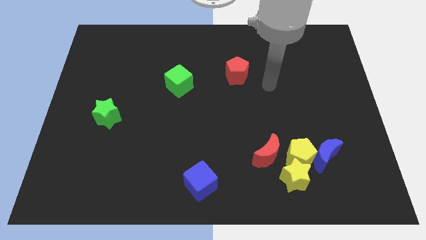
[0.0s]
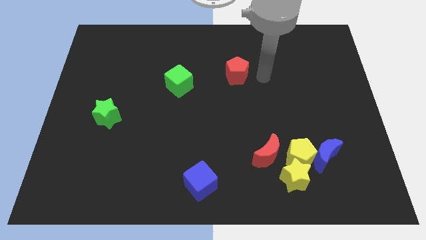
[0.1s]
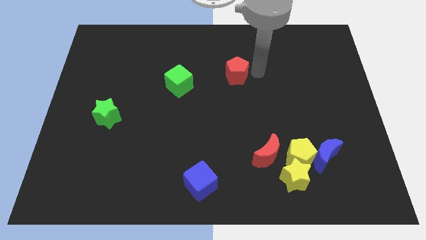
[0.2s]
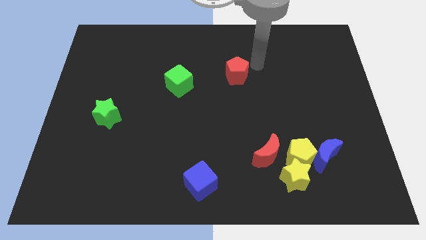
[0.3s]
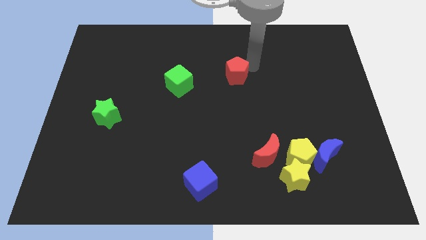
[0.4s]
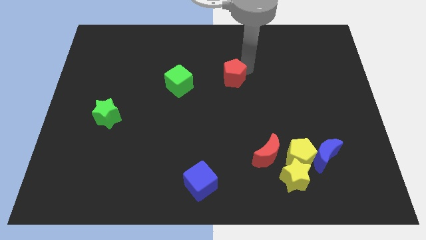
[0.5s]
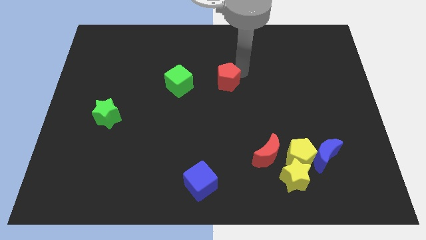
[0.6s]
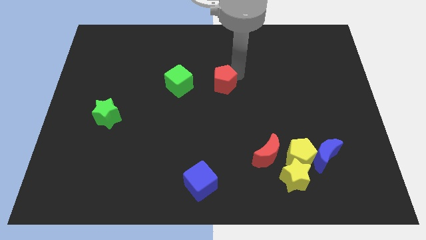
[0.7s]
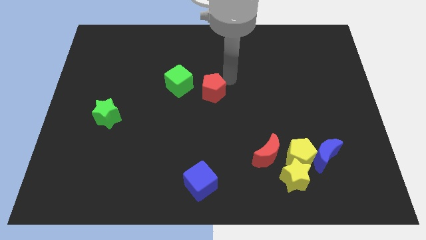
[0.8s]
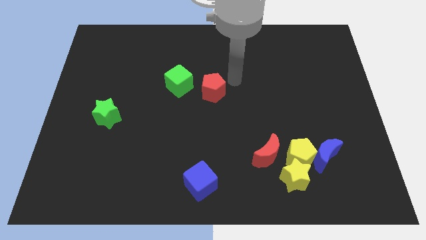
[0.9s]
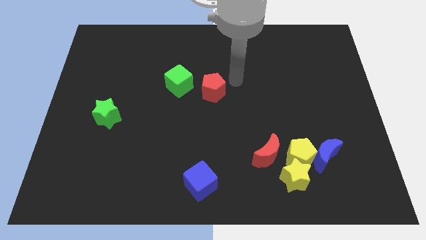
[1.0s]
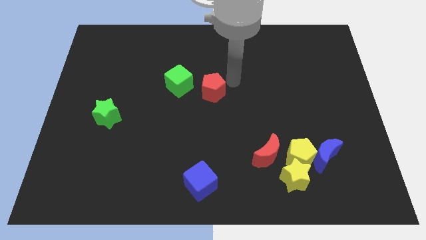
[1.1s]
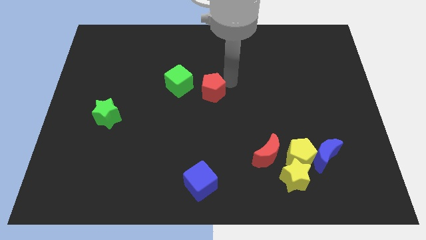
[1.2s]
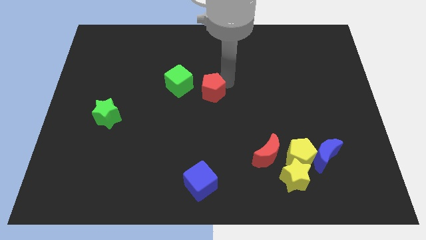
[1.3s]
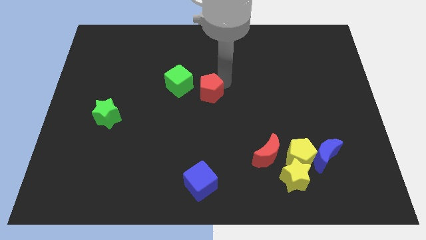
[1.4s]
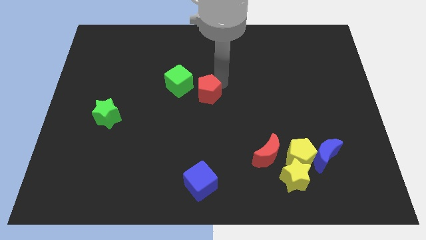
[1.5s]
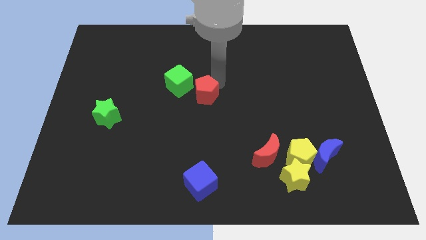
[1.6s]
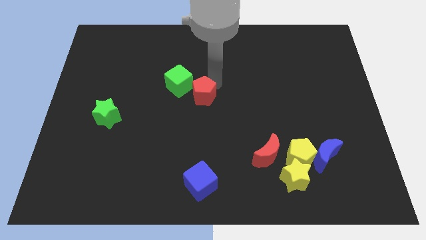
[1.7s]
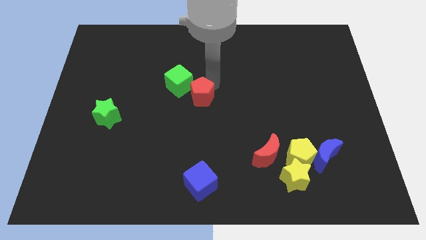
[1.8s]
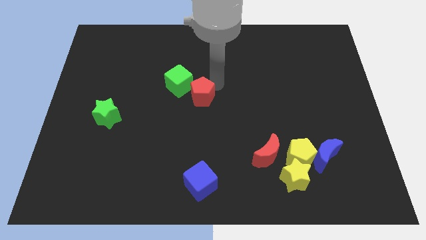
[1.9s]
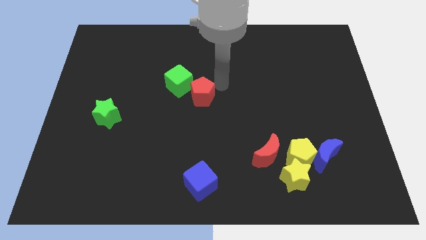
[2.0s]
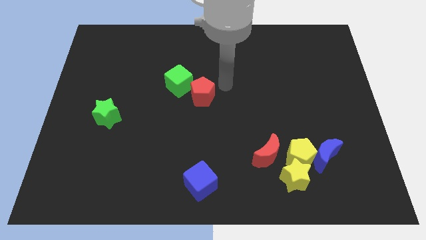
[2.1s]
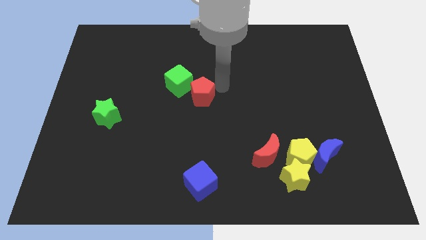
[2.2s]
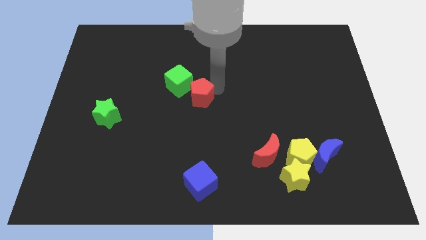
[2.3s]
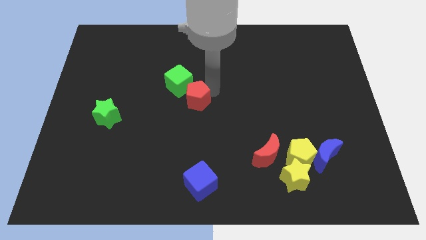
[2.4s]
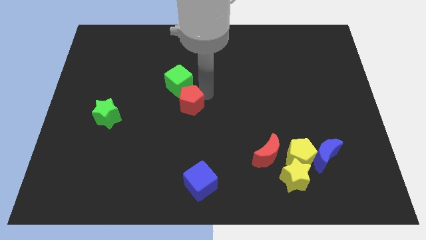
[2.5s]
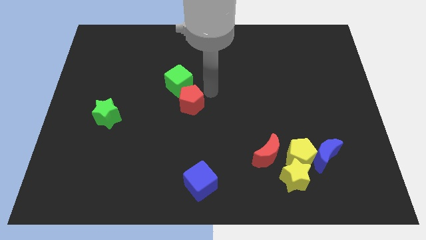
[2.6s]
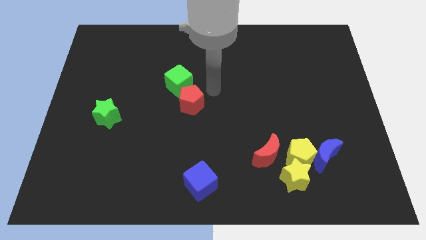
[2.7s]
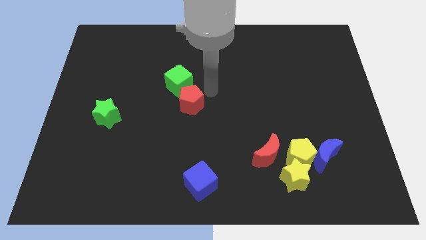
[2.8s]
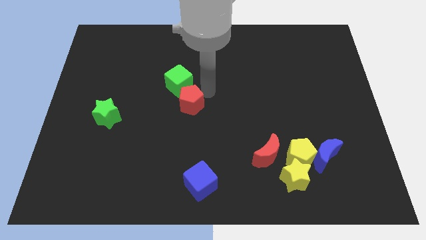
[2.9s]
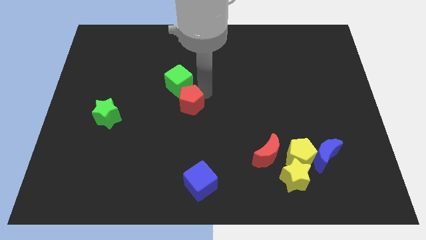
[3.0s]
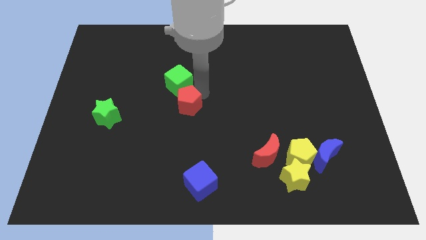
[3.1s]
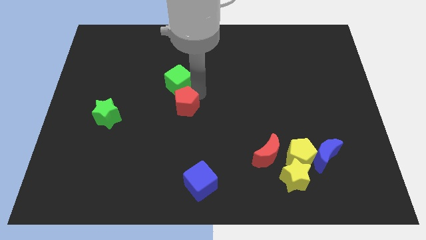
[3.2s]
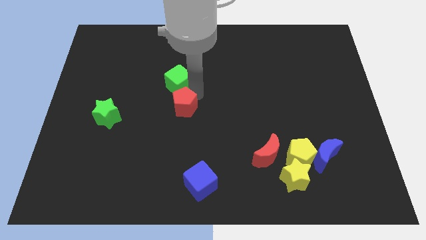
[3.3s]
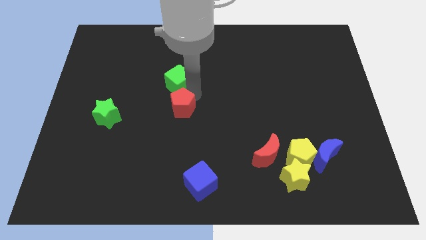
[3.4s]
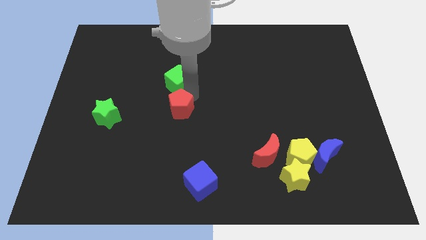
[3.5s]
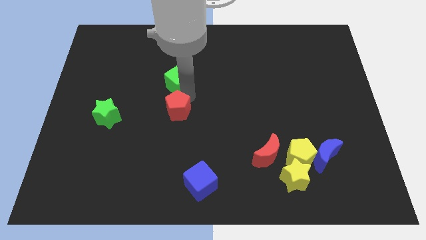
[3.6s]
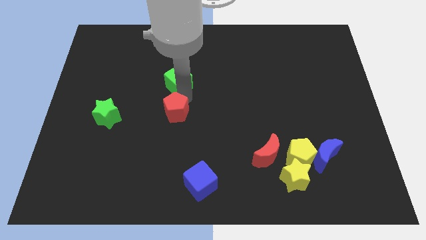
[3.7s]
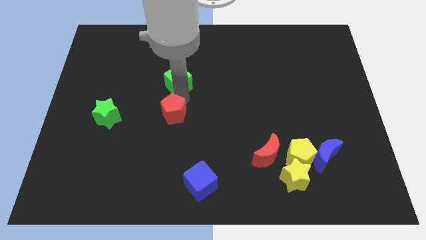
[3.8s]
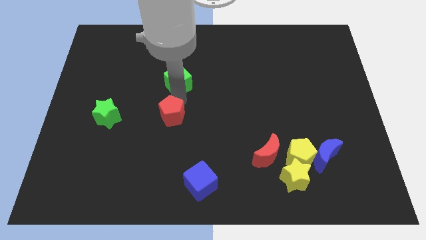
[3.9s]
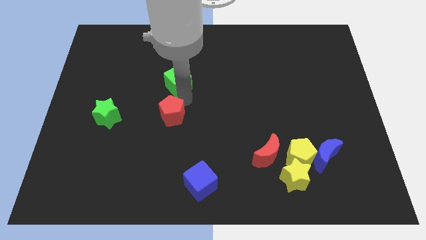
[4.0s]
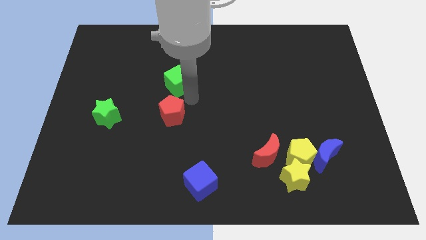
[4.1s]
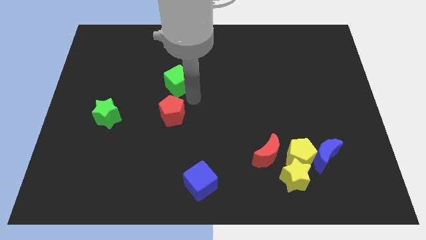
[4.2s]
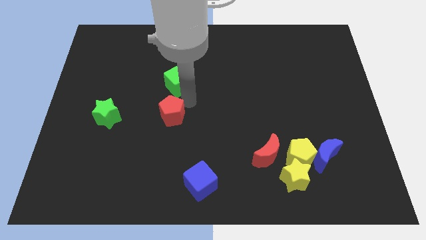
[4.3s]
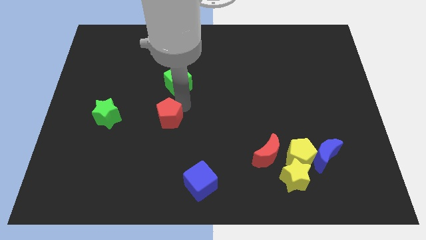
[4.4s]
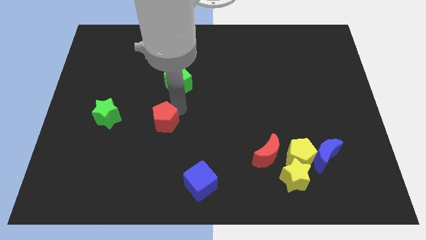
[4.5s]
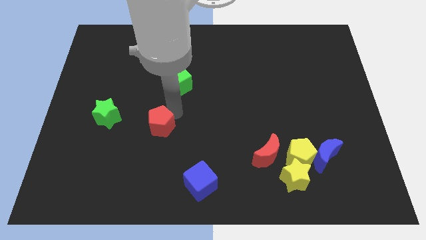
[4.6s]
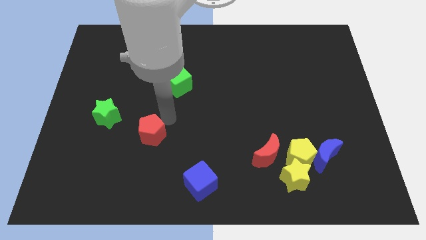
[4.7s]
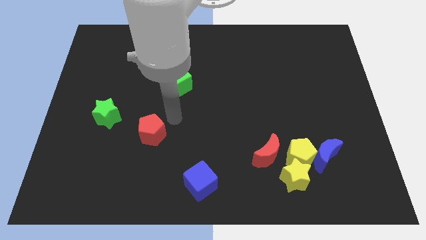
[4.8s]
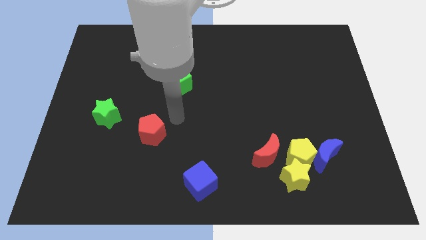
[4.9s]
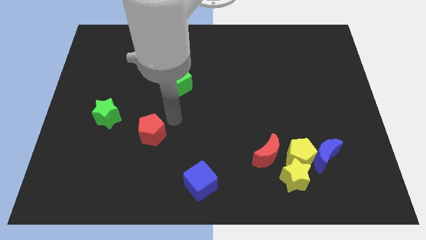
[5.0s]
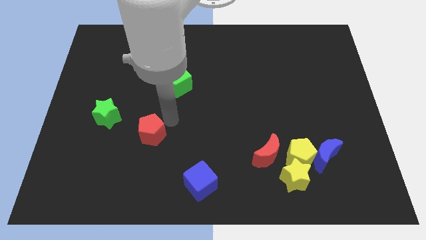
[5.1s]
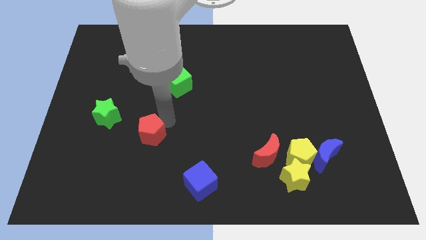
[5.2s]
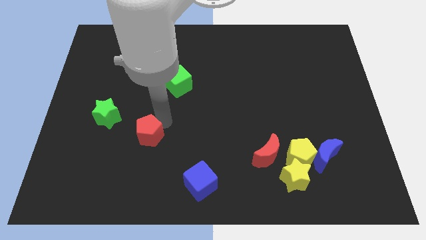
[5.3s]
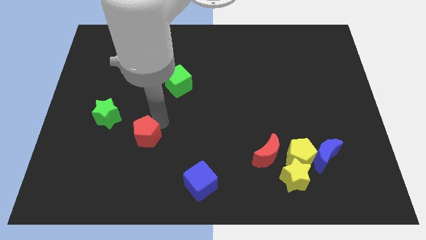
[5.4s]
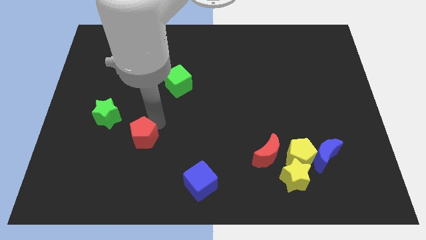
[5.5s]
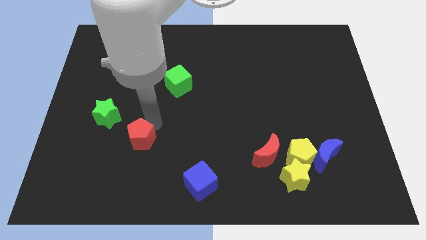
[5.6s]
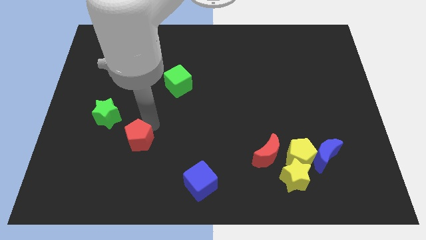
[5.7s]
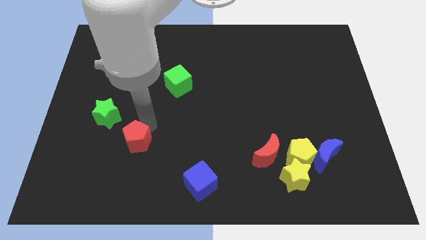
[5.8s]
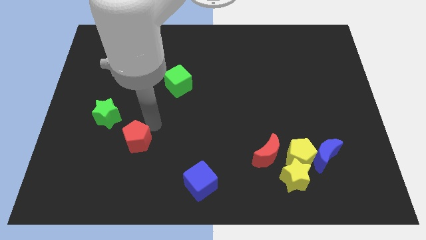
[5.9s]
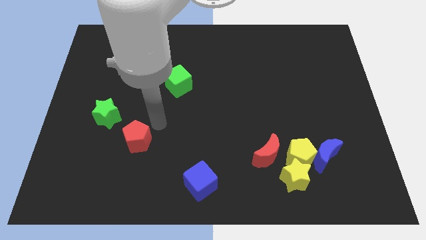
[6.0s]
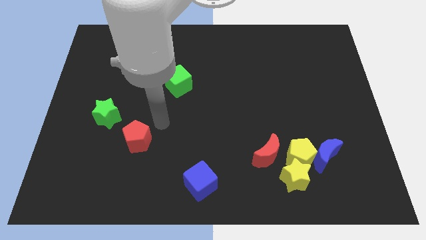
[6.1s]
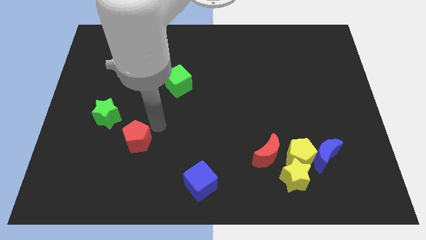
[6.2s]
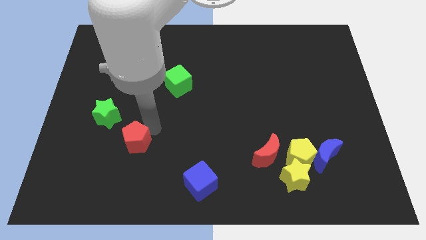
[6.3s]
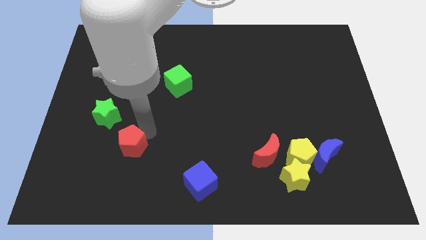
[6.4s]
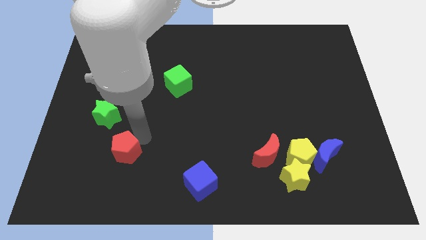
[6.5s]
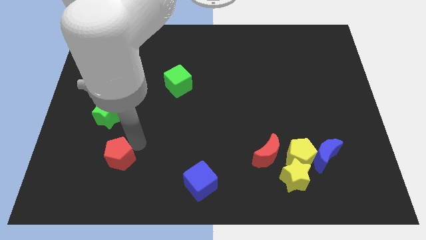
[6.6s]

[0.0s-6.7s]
put the red pentagon to the bottom side of the green star

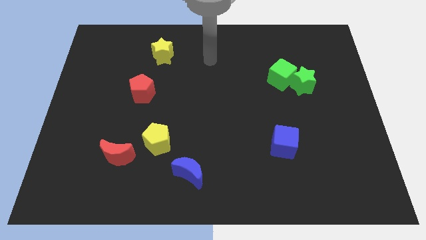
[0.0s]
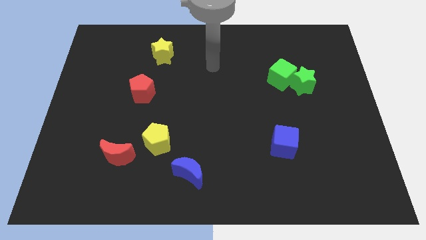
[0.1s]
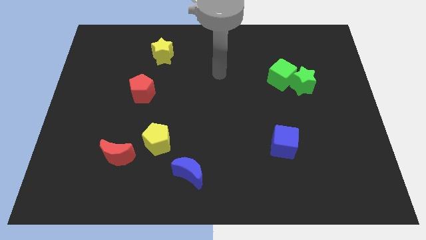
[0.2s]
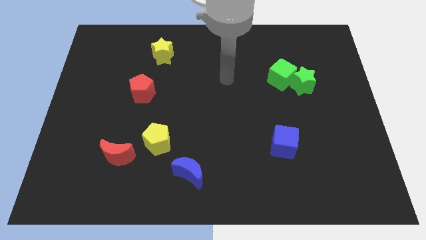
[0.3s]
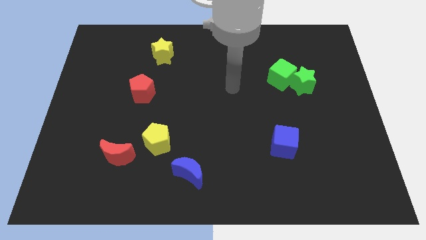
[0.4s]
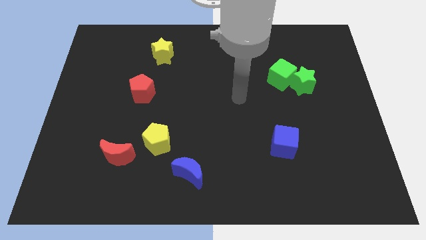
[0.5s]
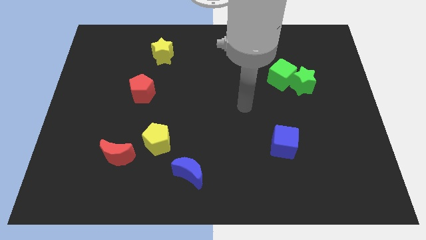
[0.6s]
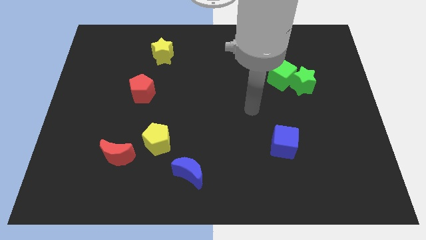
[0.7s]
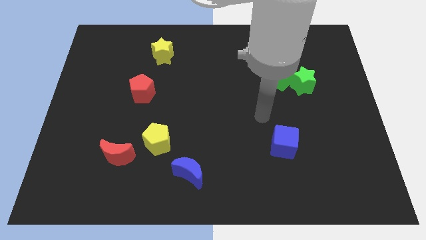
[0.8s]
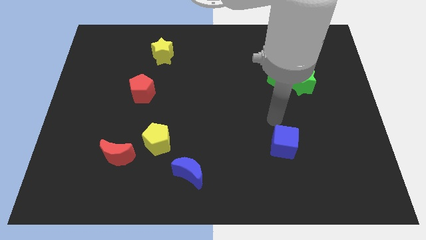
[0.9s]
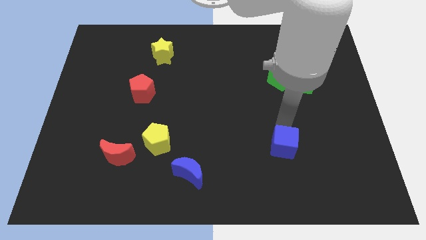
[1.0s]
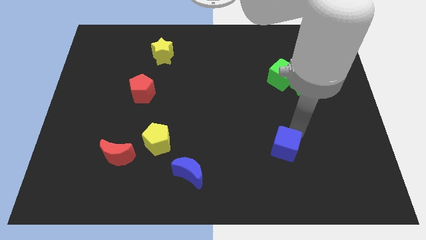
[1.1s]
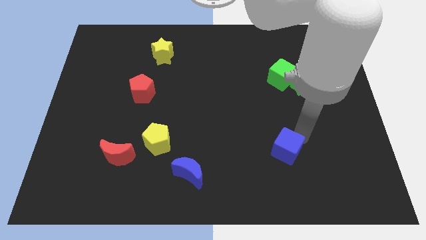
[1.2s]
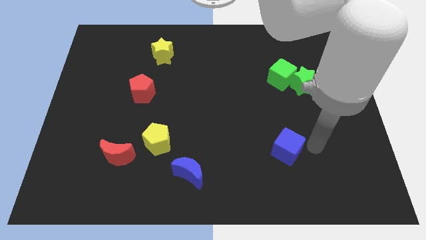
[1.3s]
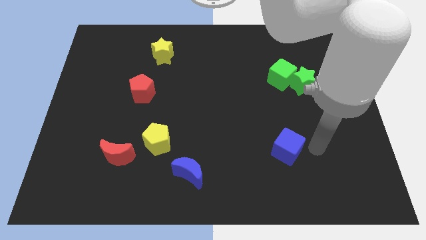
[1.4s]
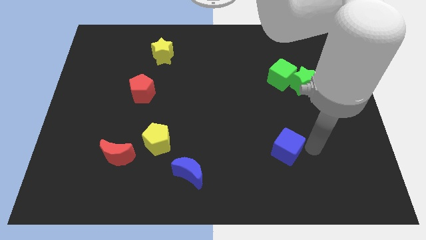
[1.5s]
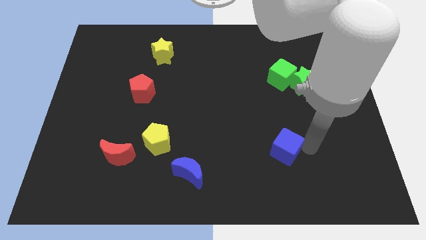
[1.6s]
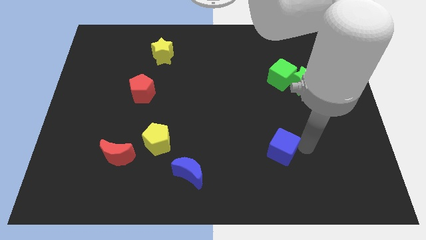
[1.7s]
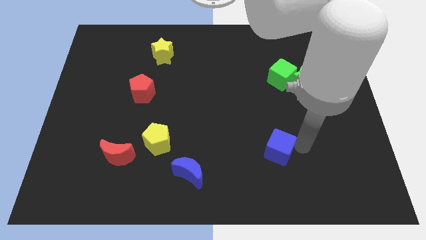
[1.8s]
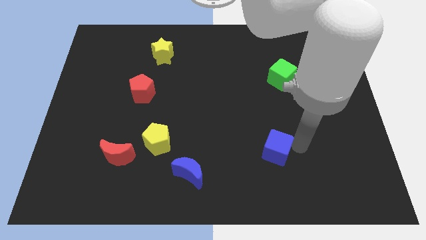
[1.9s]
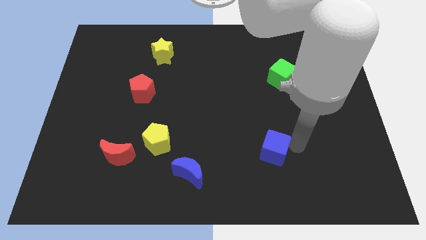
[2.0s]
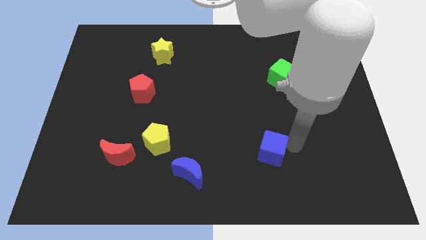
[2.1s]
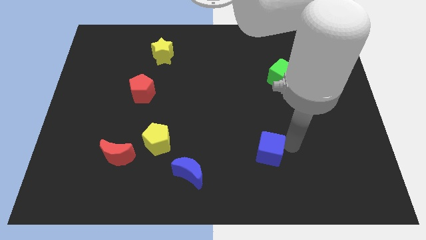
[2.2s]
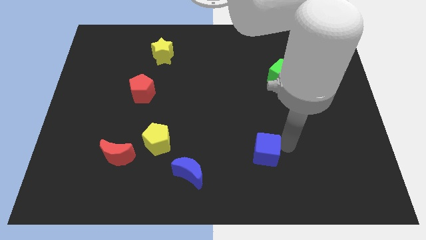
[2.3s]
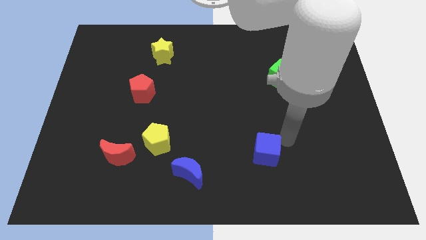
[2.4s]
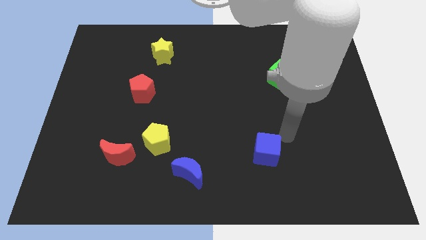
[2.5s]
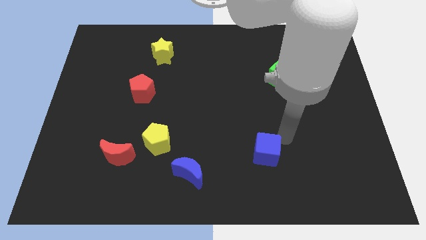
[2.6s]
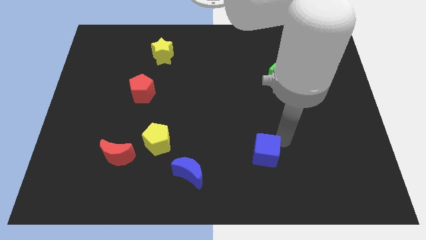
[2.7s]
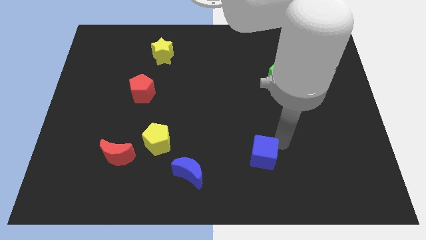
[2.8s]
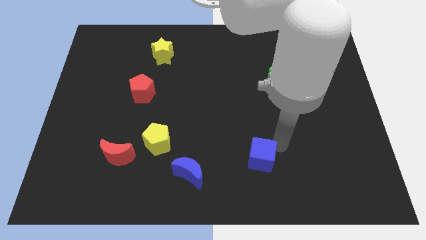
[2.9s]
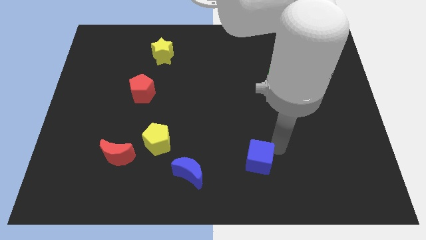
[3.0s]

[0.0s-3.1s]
slide the blue cube to the right of the blue moon
